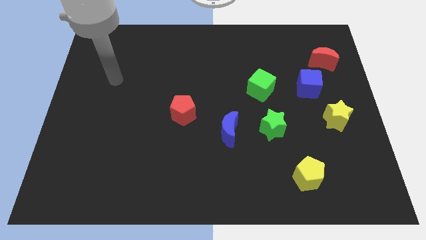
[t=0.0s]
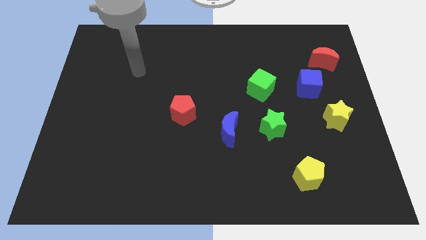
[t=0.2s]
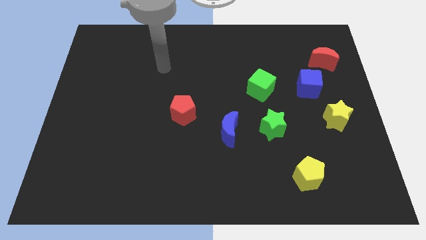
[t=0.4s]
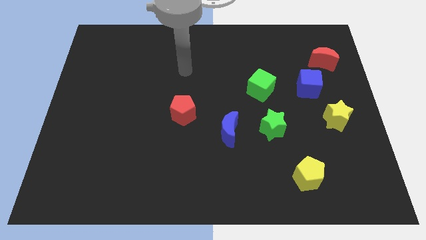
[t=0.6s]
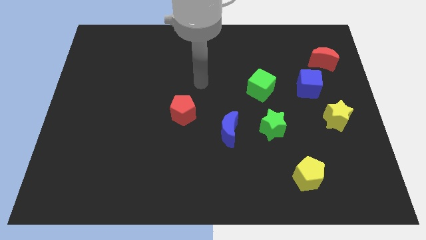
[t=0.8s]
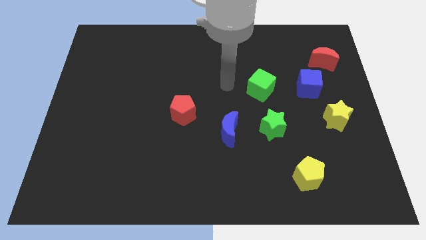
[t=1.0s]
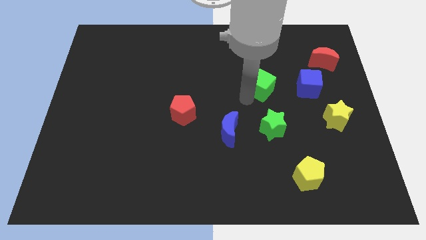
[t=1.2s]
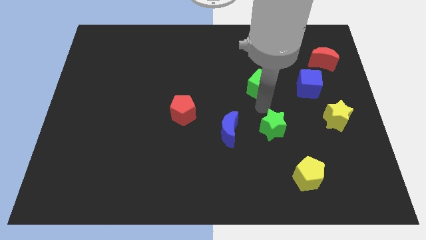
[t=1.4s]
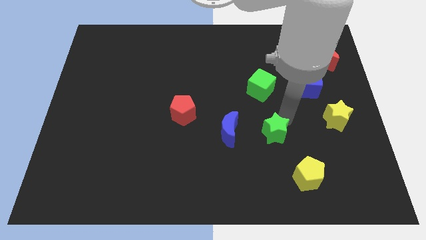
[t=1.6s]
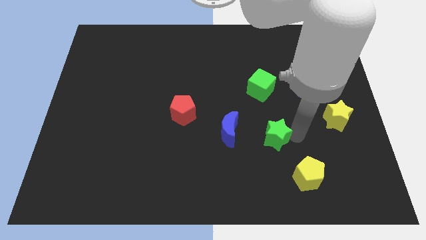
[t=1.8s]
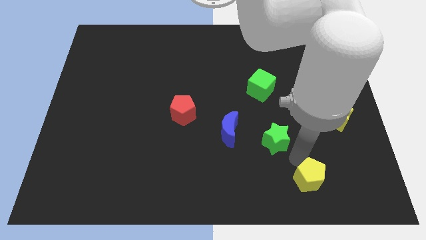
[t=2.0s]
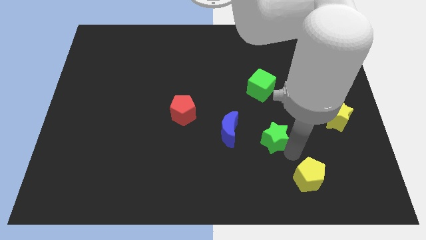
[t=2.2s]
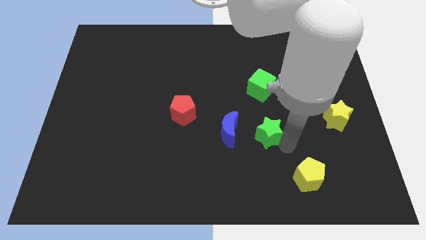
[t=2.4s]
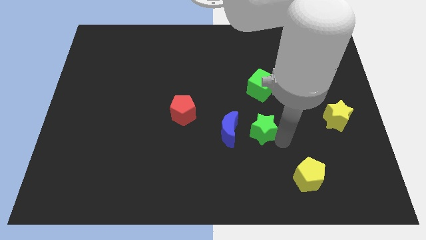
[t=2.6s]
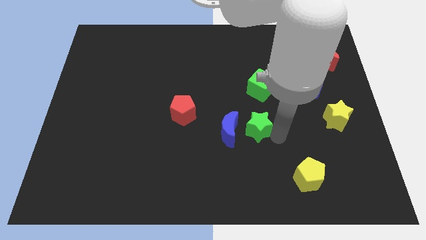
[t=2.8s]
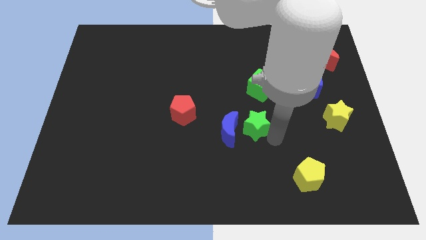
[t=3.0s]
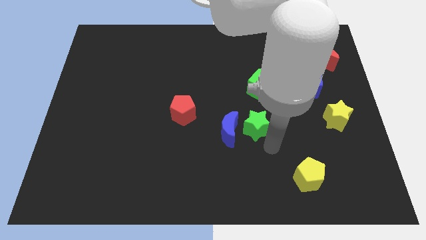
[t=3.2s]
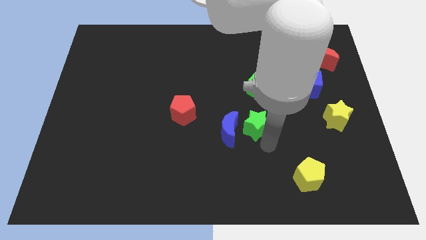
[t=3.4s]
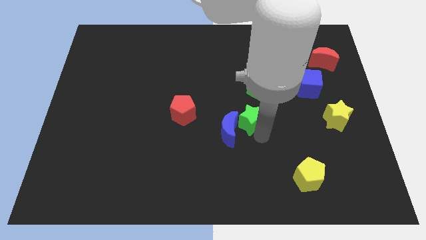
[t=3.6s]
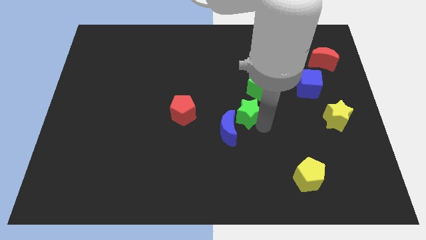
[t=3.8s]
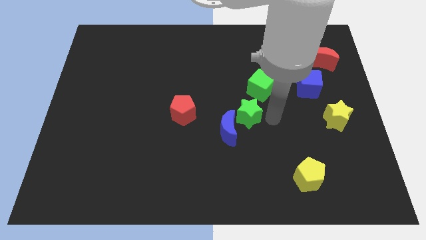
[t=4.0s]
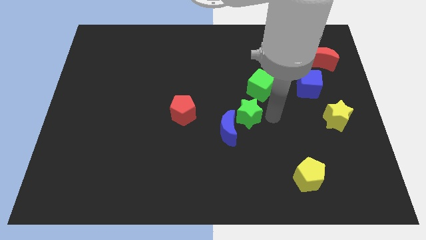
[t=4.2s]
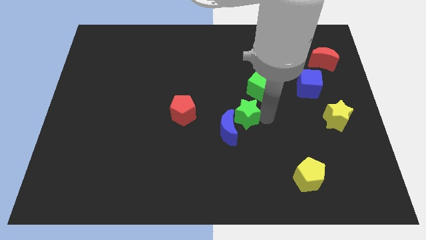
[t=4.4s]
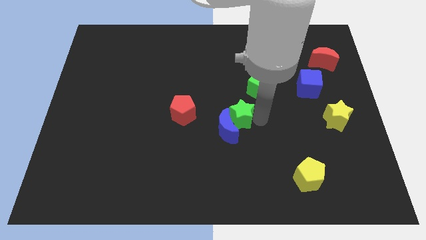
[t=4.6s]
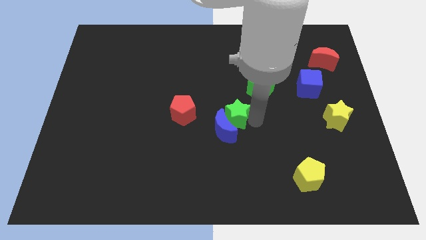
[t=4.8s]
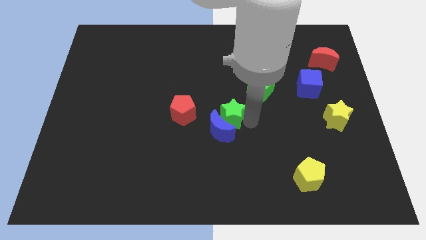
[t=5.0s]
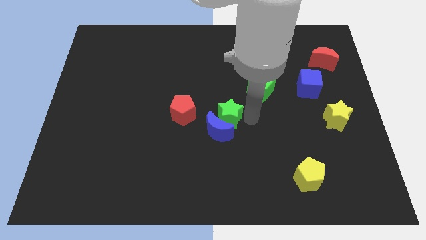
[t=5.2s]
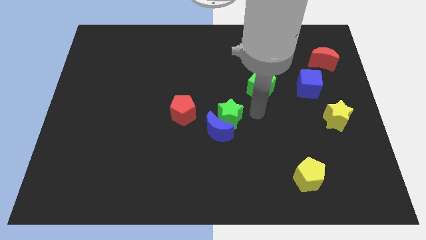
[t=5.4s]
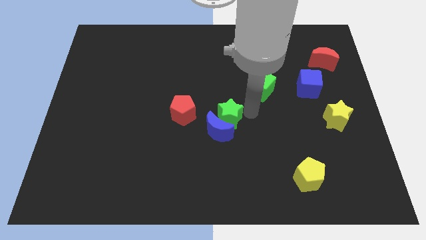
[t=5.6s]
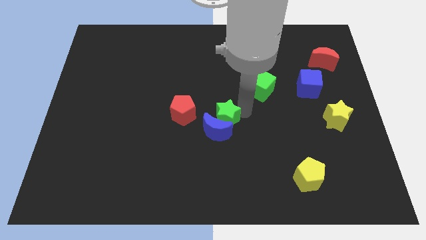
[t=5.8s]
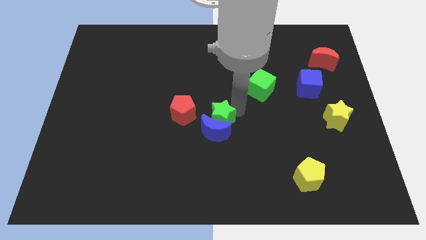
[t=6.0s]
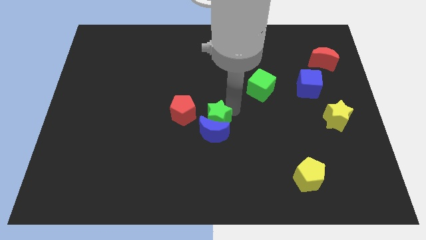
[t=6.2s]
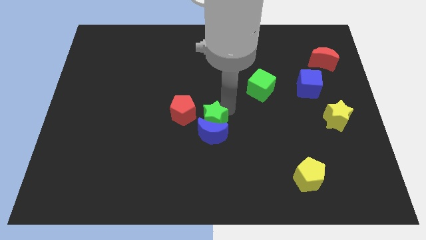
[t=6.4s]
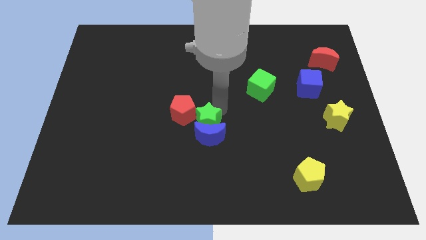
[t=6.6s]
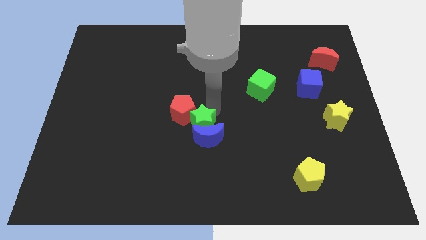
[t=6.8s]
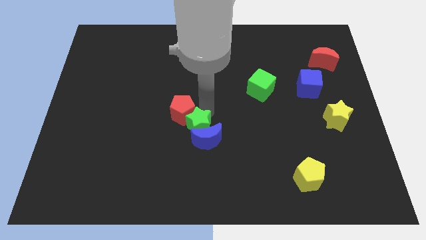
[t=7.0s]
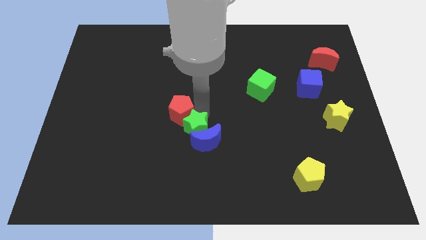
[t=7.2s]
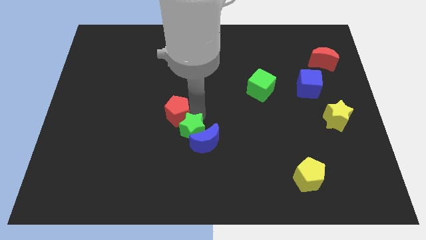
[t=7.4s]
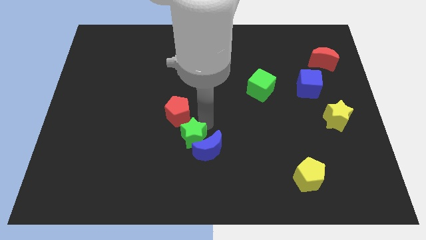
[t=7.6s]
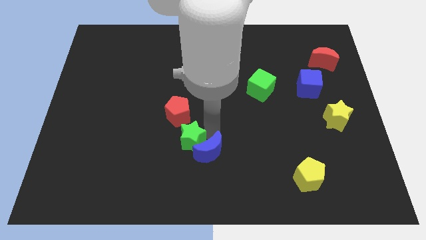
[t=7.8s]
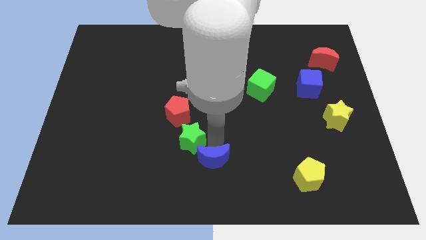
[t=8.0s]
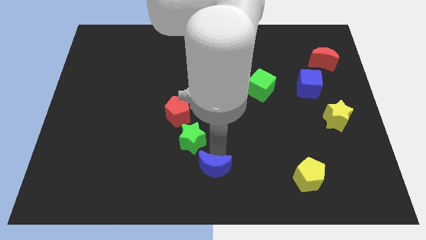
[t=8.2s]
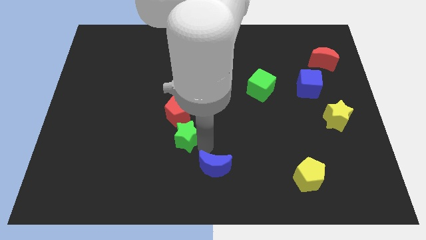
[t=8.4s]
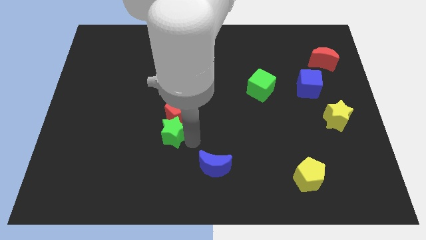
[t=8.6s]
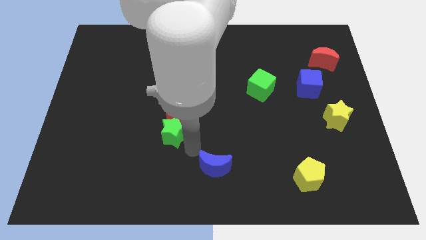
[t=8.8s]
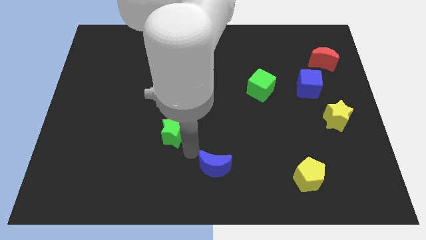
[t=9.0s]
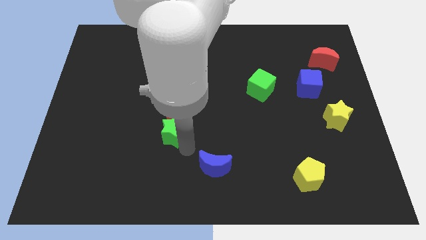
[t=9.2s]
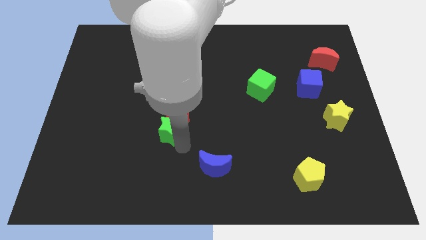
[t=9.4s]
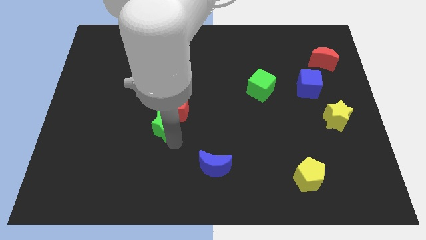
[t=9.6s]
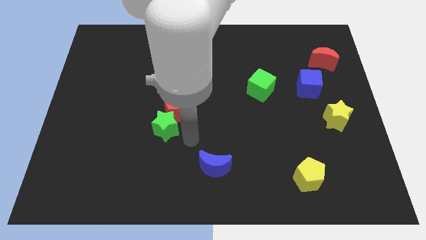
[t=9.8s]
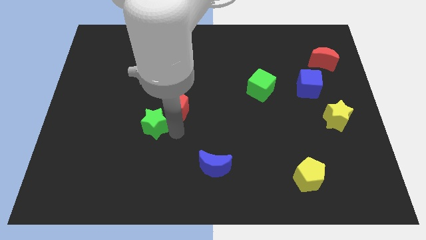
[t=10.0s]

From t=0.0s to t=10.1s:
move the green star to the left side of the red pentagon

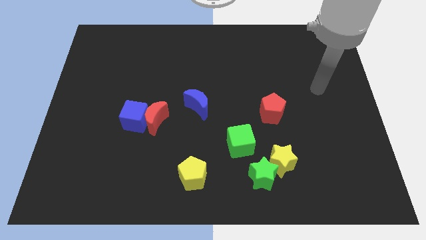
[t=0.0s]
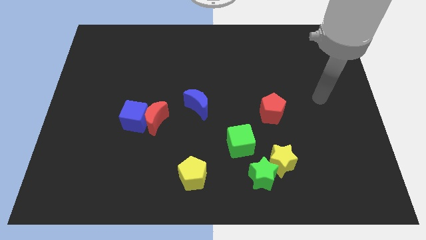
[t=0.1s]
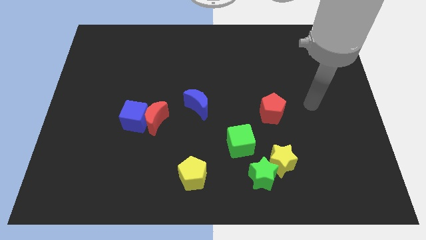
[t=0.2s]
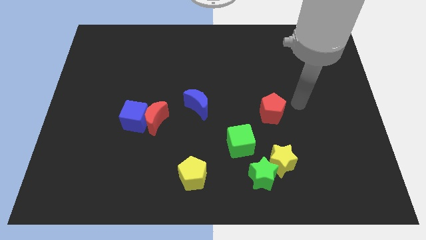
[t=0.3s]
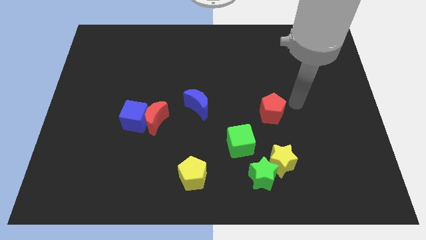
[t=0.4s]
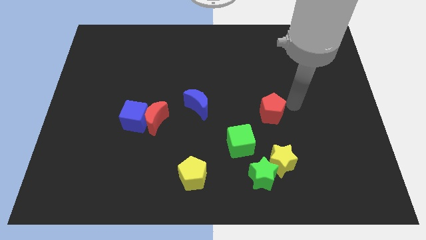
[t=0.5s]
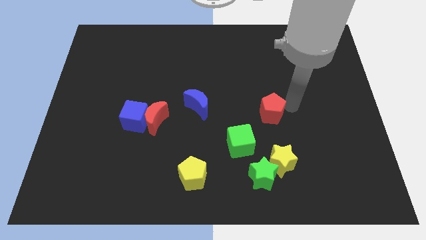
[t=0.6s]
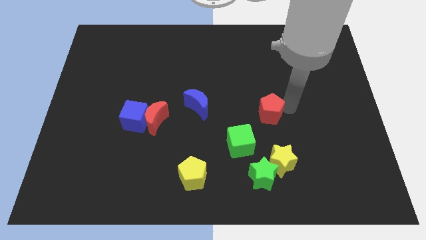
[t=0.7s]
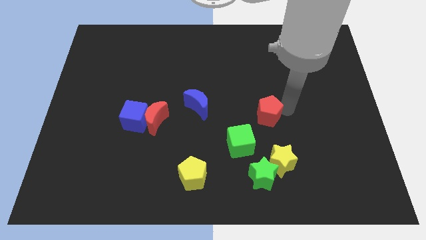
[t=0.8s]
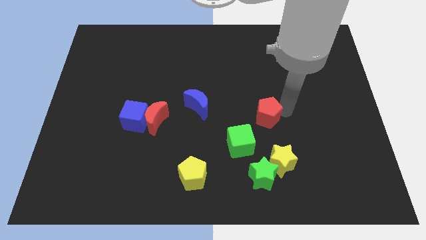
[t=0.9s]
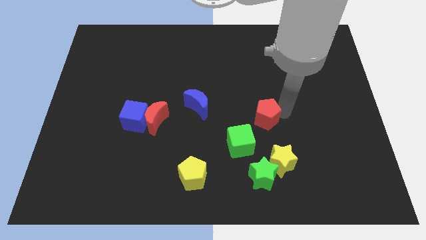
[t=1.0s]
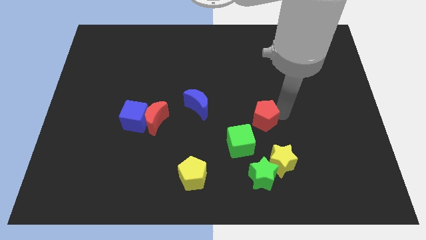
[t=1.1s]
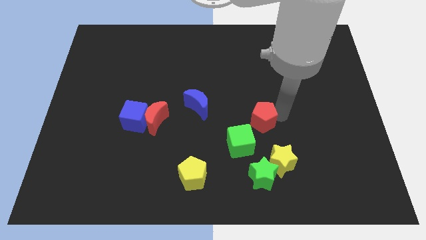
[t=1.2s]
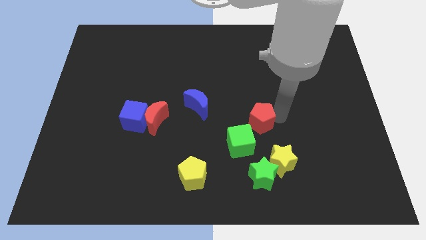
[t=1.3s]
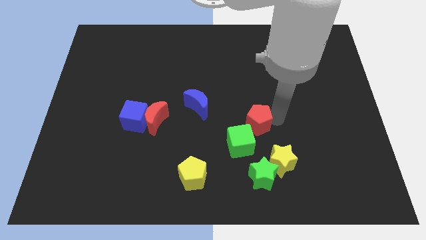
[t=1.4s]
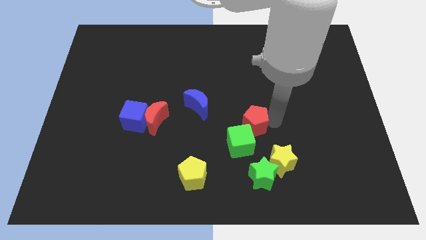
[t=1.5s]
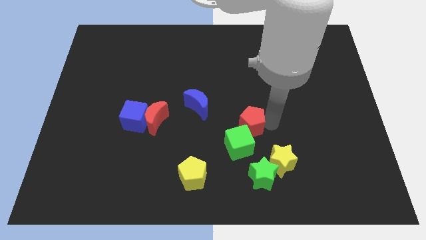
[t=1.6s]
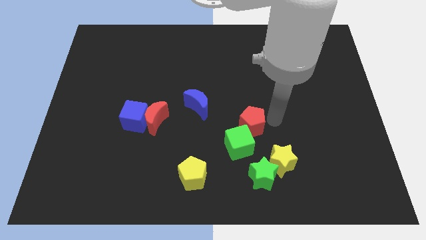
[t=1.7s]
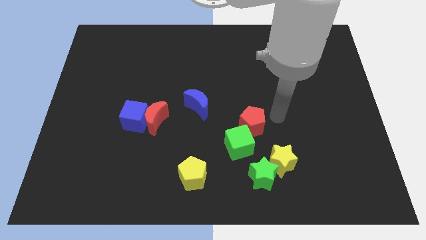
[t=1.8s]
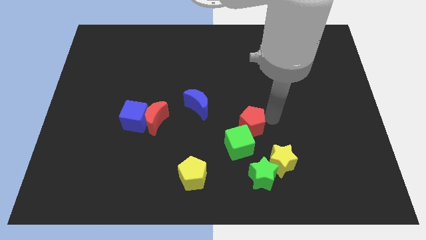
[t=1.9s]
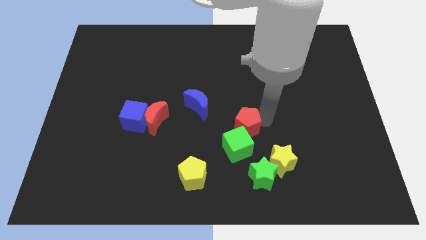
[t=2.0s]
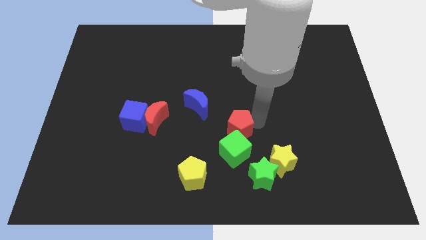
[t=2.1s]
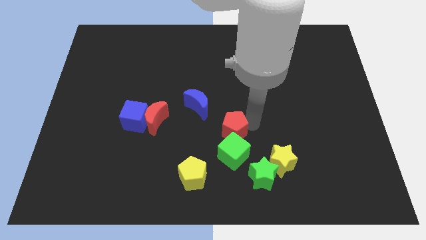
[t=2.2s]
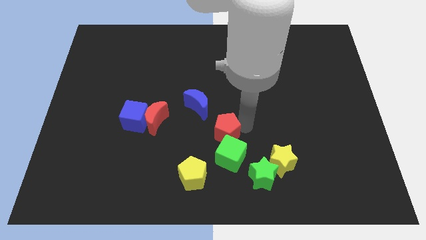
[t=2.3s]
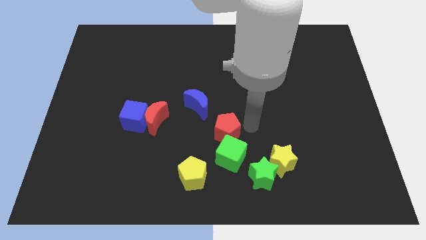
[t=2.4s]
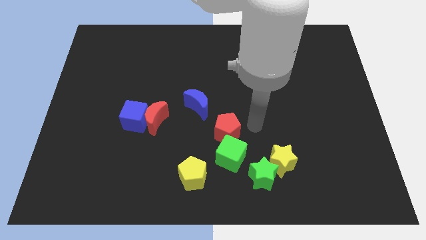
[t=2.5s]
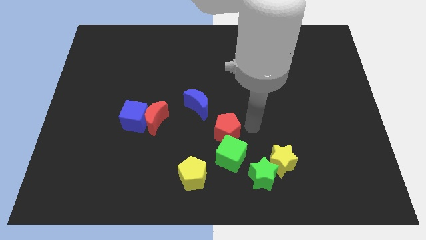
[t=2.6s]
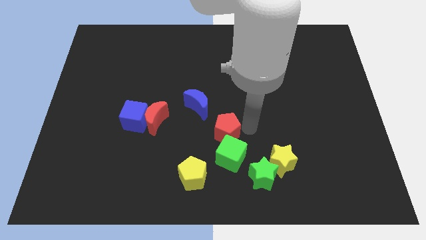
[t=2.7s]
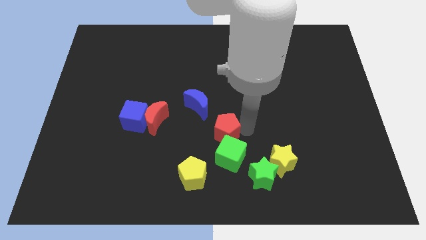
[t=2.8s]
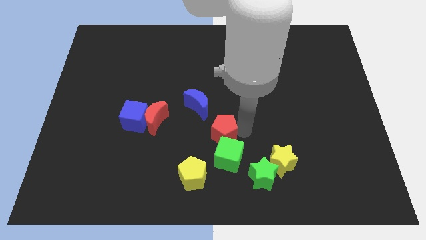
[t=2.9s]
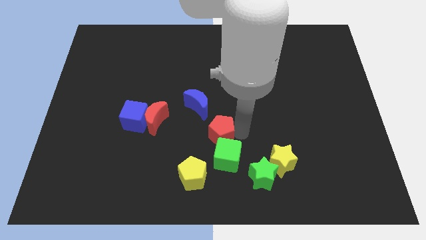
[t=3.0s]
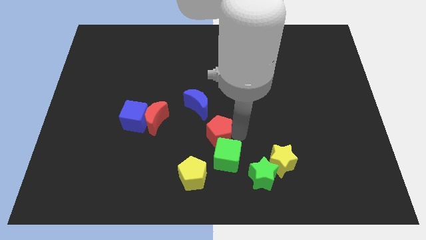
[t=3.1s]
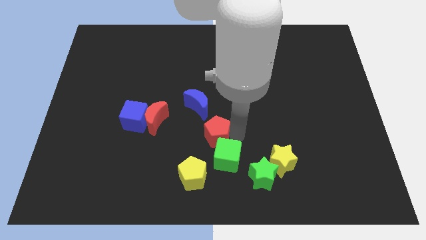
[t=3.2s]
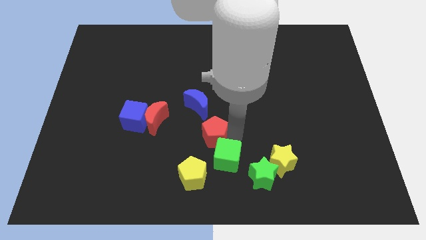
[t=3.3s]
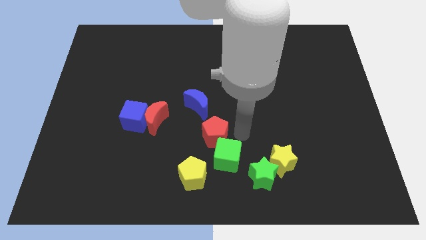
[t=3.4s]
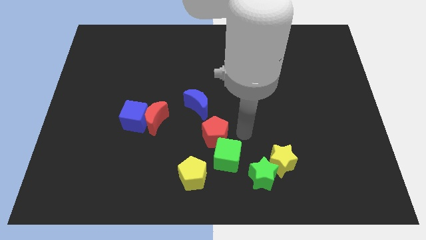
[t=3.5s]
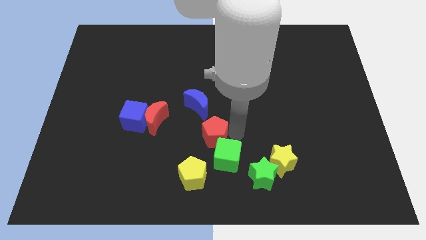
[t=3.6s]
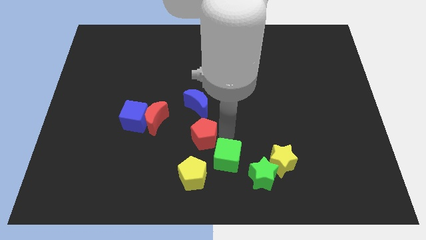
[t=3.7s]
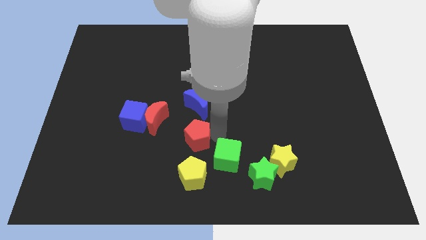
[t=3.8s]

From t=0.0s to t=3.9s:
push the red pentagon to the bottom right side of the red moon
